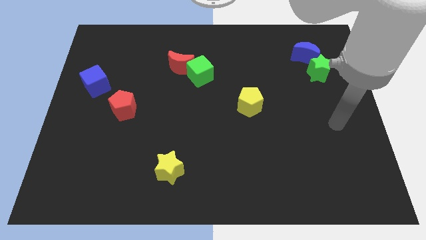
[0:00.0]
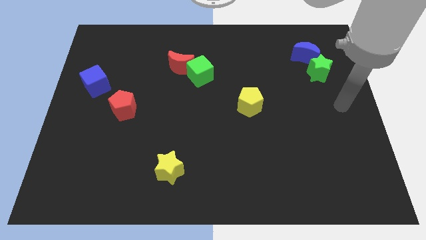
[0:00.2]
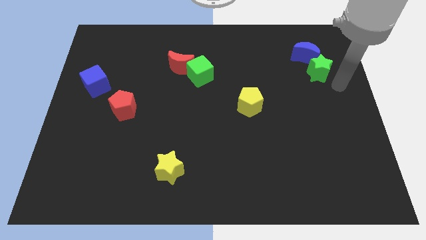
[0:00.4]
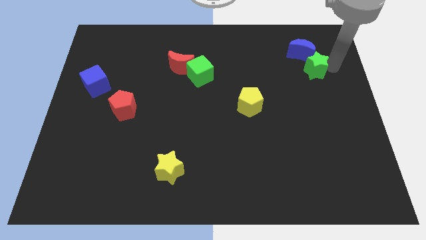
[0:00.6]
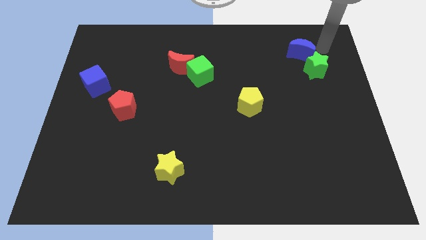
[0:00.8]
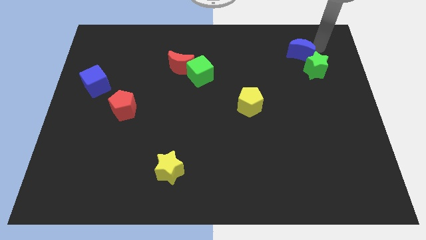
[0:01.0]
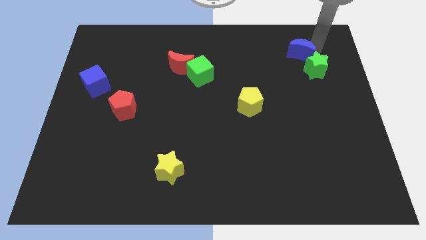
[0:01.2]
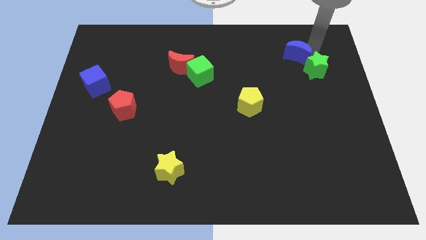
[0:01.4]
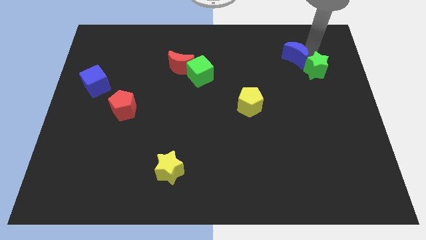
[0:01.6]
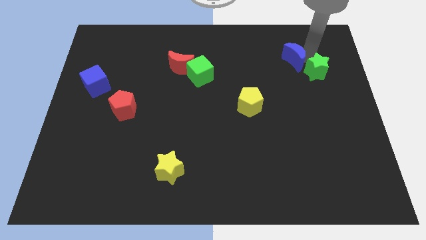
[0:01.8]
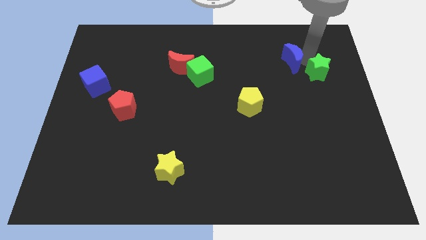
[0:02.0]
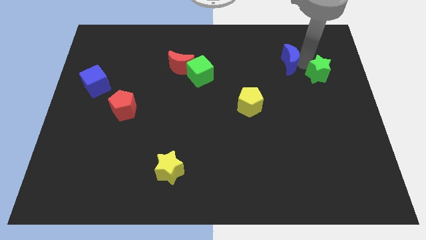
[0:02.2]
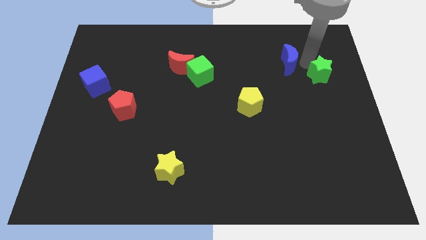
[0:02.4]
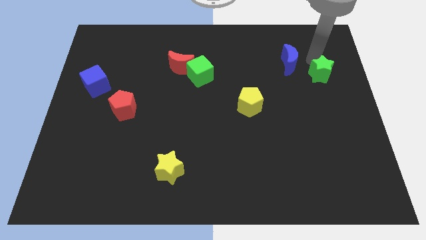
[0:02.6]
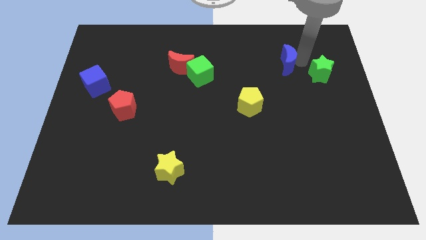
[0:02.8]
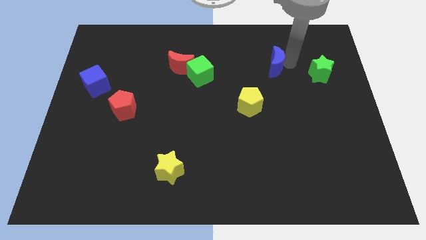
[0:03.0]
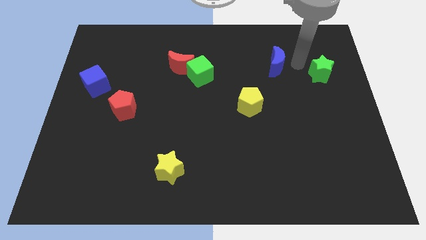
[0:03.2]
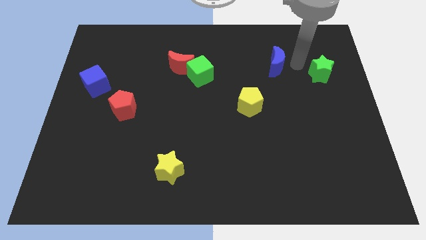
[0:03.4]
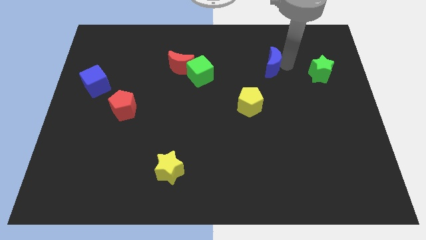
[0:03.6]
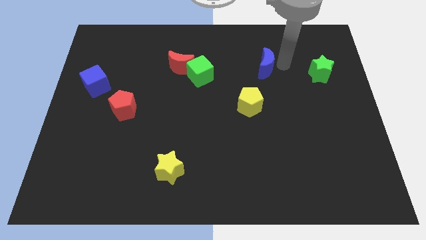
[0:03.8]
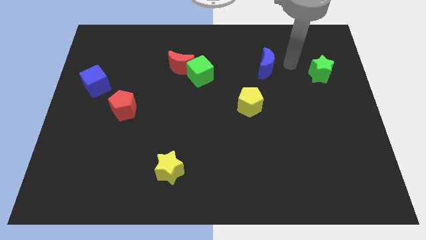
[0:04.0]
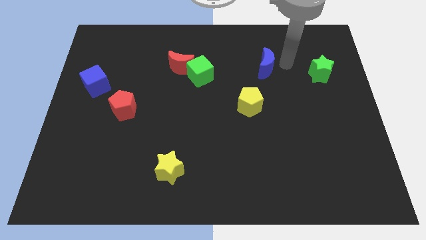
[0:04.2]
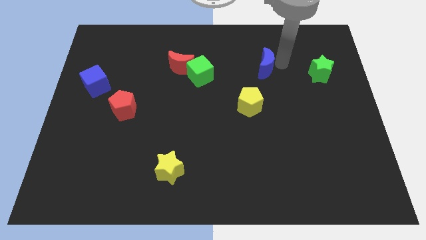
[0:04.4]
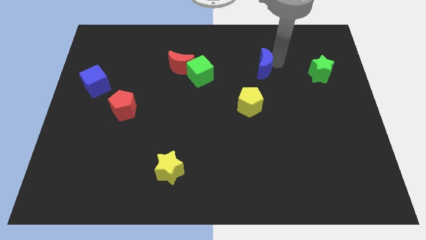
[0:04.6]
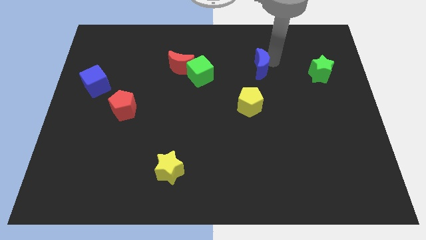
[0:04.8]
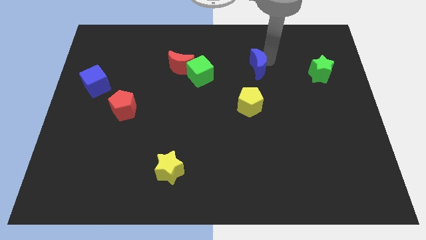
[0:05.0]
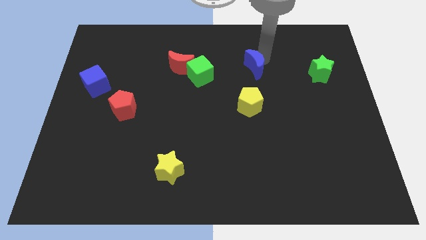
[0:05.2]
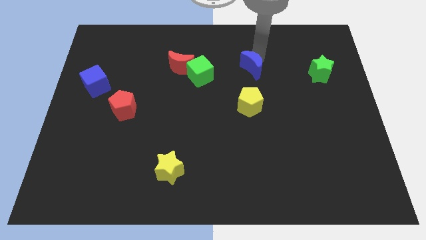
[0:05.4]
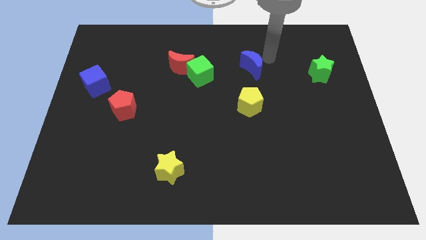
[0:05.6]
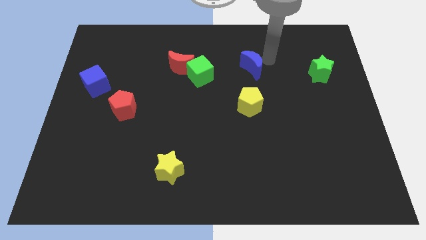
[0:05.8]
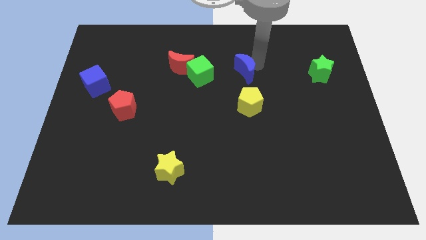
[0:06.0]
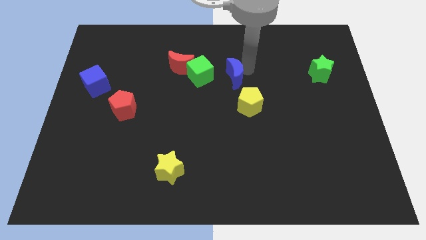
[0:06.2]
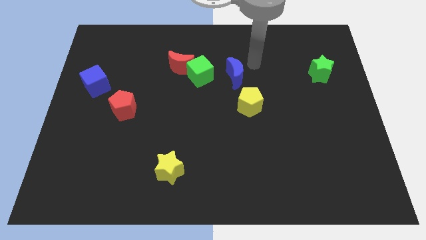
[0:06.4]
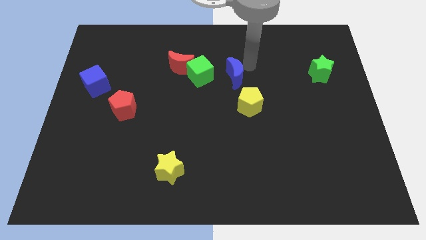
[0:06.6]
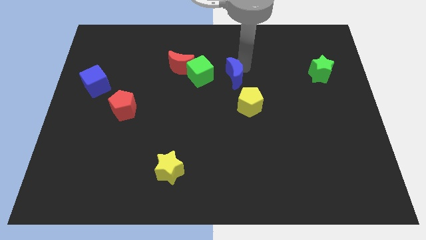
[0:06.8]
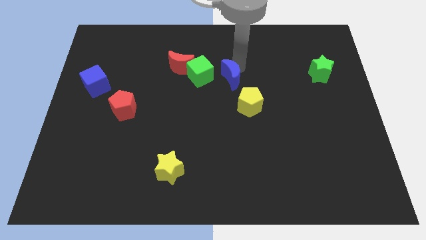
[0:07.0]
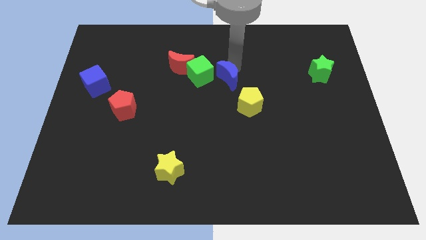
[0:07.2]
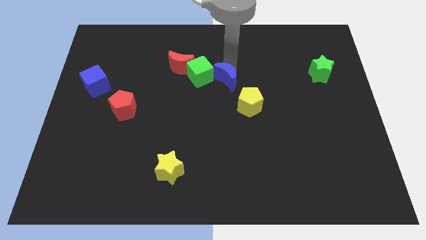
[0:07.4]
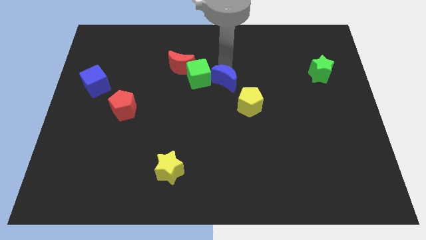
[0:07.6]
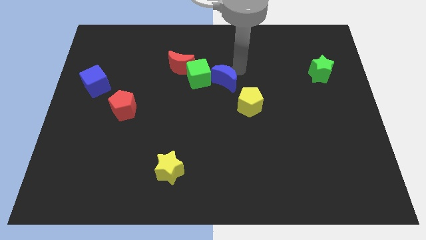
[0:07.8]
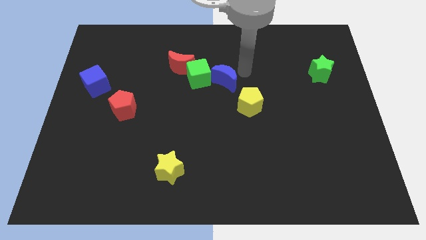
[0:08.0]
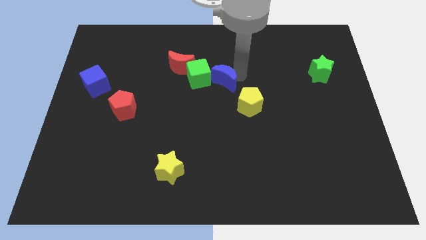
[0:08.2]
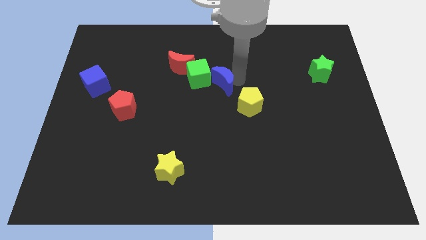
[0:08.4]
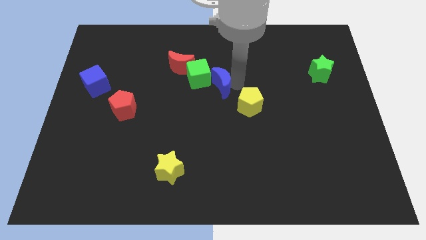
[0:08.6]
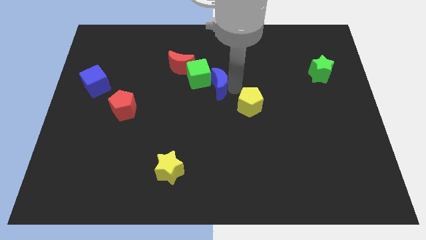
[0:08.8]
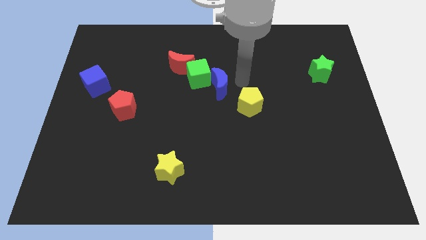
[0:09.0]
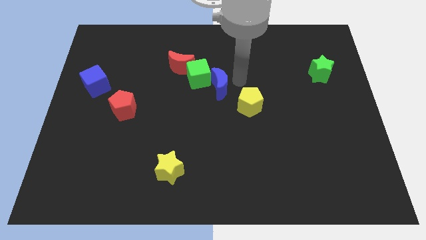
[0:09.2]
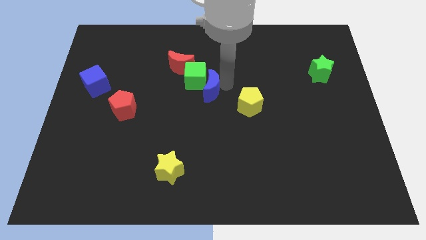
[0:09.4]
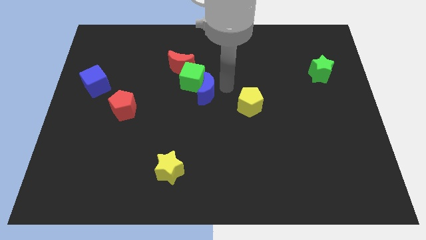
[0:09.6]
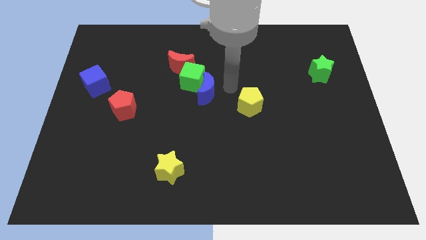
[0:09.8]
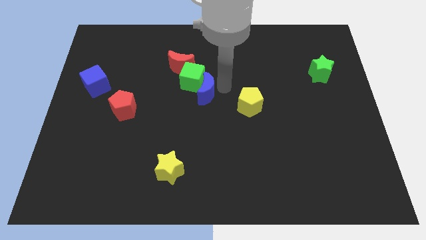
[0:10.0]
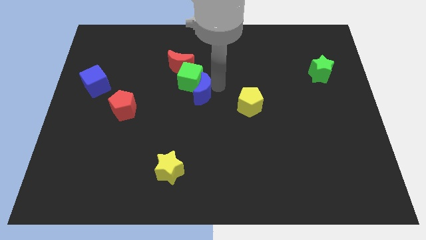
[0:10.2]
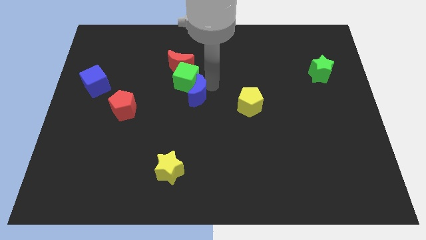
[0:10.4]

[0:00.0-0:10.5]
slide the blue moon to the bottom side of the red moon

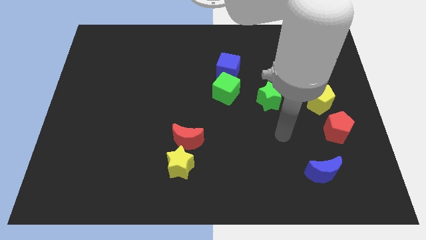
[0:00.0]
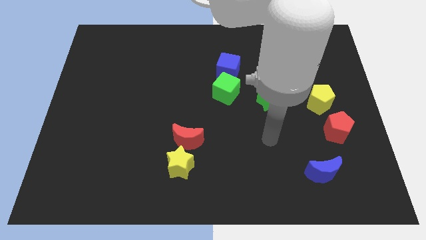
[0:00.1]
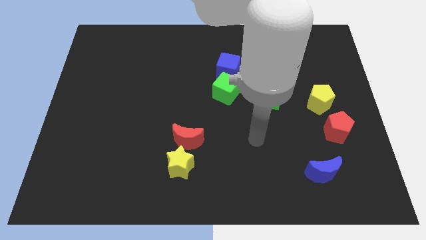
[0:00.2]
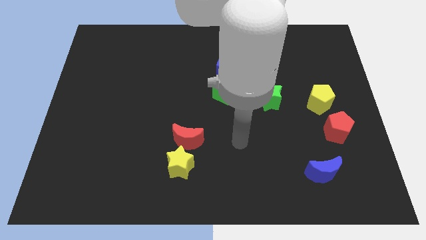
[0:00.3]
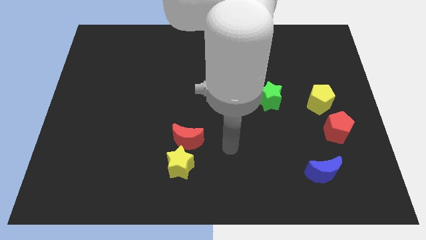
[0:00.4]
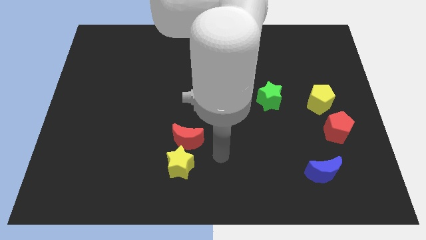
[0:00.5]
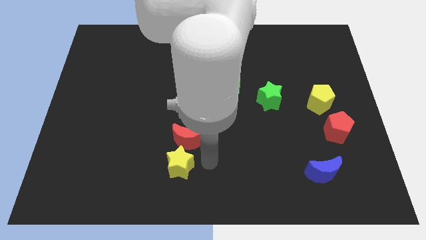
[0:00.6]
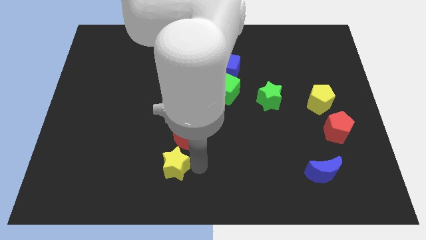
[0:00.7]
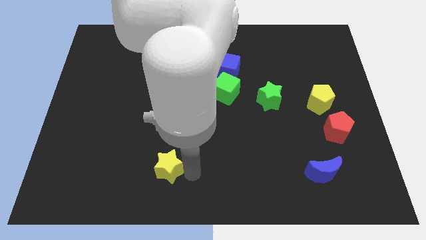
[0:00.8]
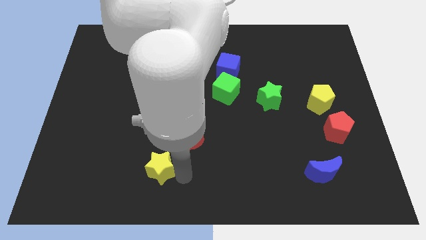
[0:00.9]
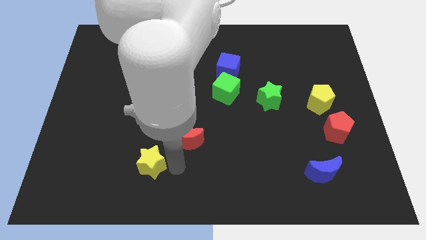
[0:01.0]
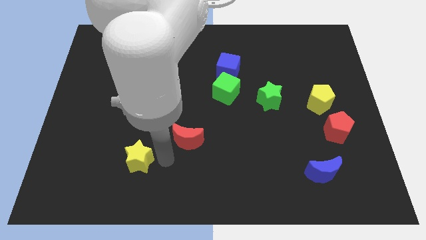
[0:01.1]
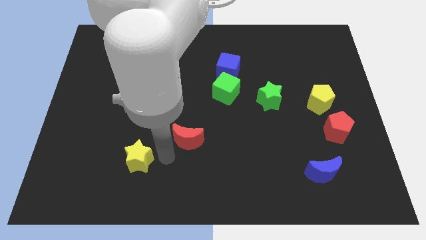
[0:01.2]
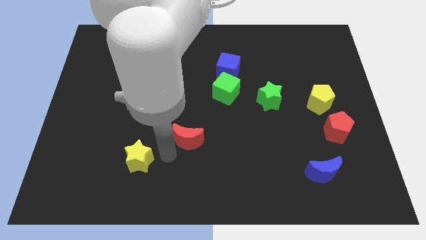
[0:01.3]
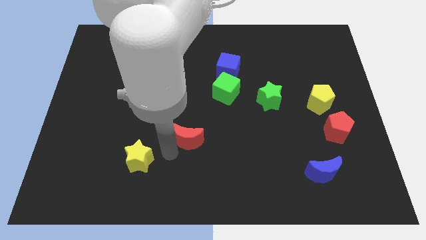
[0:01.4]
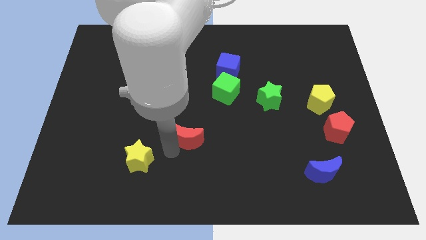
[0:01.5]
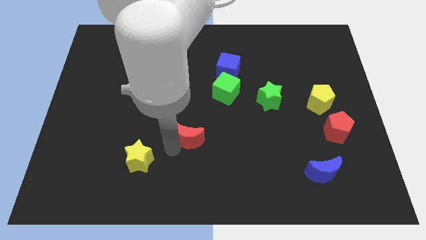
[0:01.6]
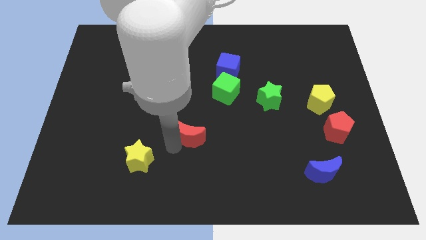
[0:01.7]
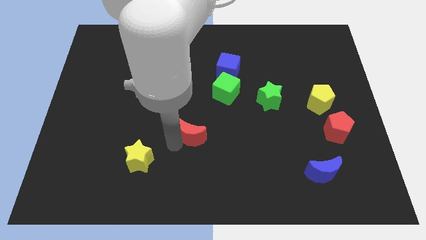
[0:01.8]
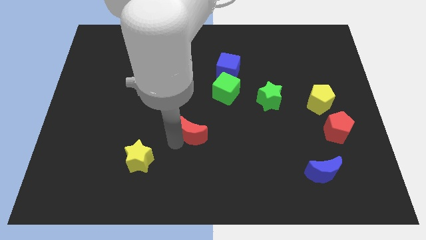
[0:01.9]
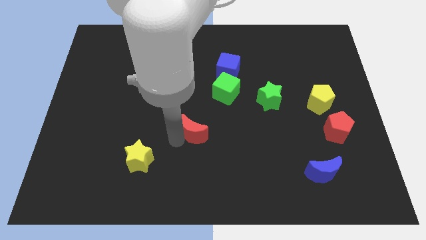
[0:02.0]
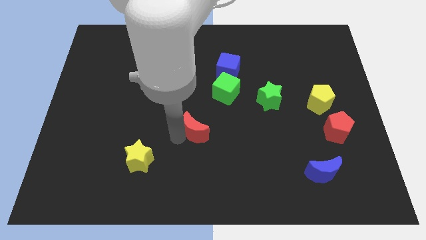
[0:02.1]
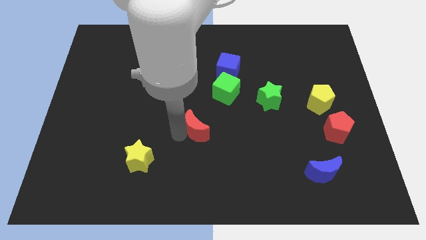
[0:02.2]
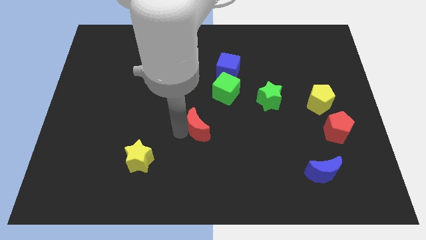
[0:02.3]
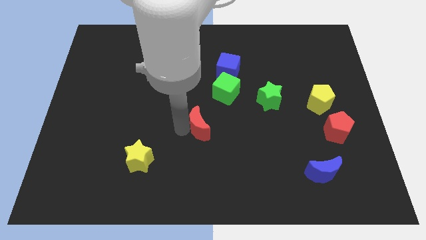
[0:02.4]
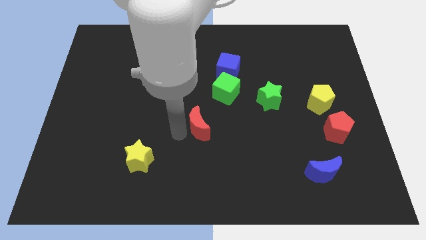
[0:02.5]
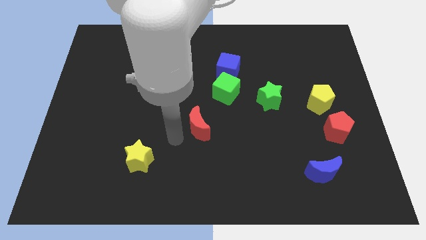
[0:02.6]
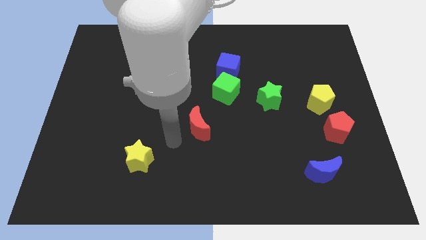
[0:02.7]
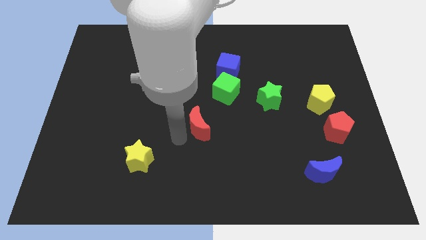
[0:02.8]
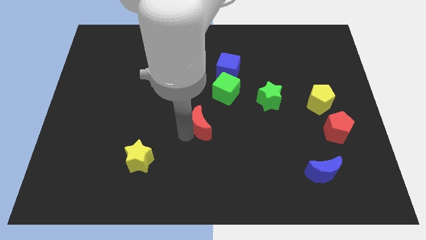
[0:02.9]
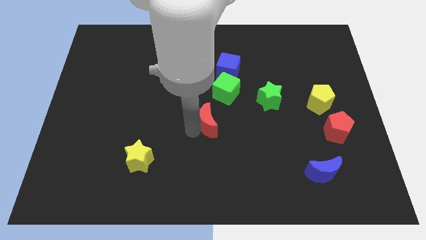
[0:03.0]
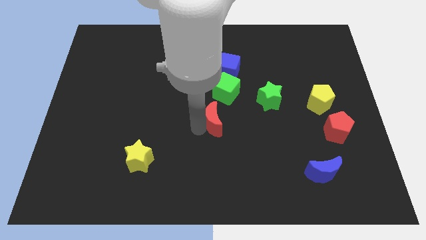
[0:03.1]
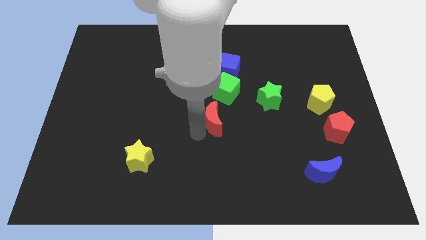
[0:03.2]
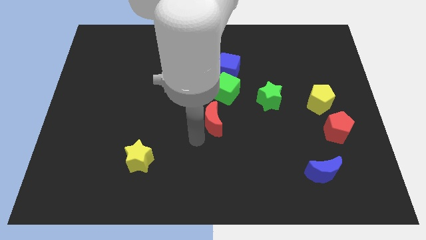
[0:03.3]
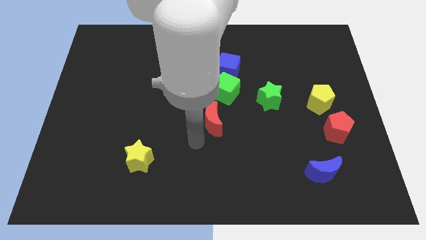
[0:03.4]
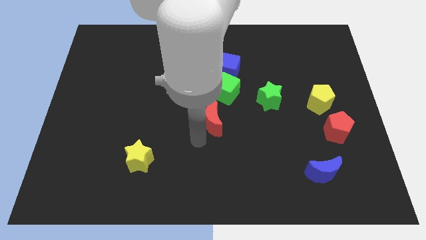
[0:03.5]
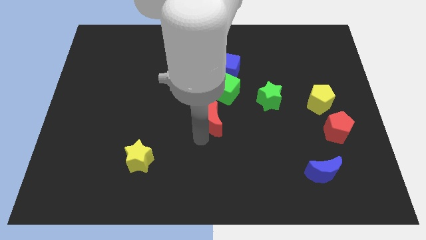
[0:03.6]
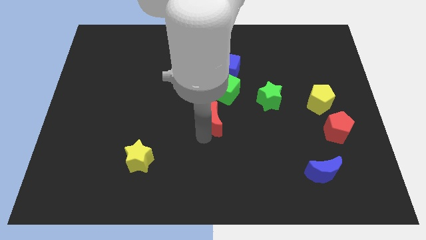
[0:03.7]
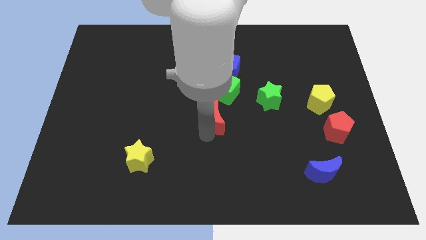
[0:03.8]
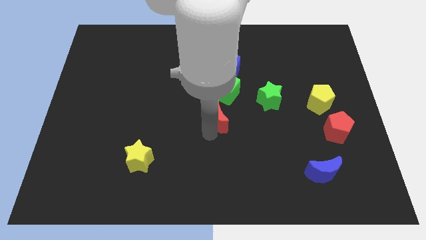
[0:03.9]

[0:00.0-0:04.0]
put the red moon below the blue cube
